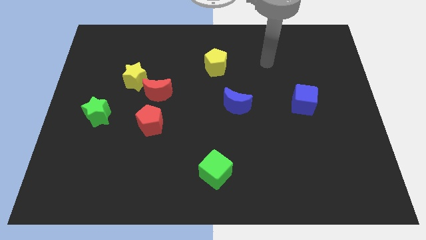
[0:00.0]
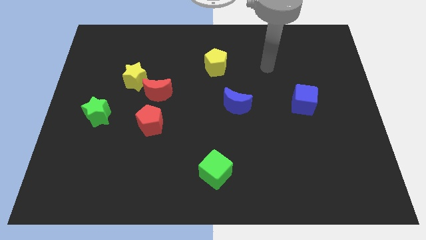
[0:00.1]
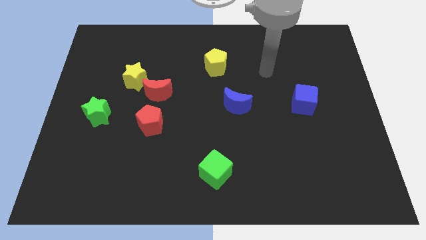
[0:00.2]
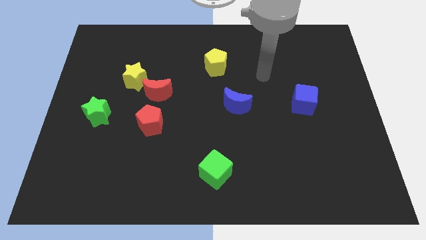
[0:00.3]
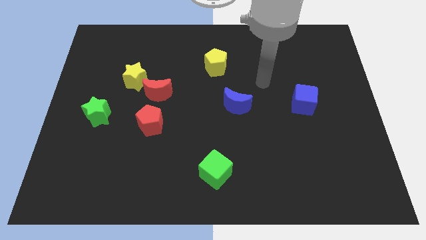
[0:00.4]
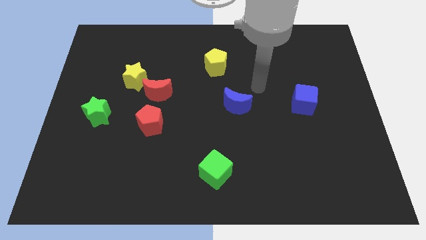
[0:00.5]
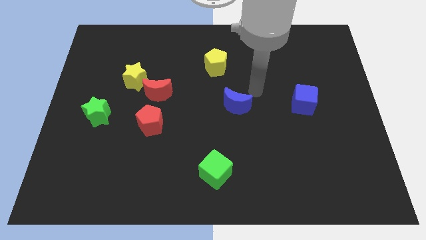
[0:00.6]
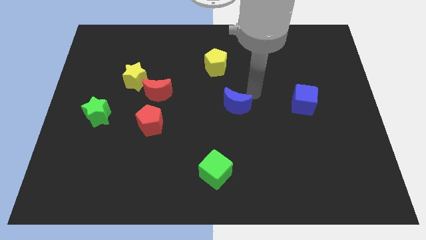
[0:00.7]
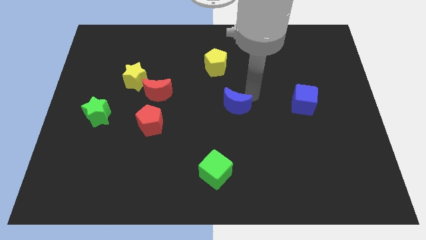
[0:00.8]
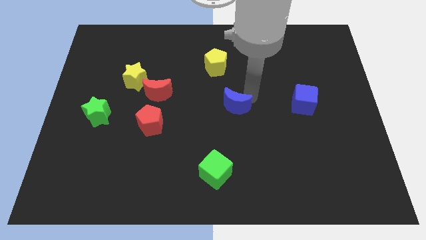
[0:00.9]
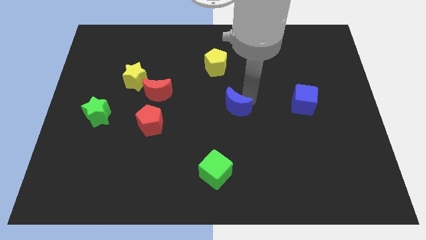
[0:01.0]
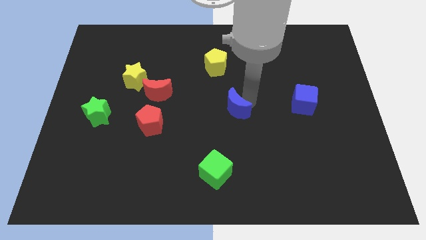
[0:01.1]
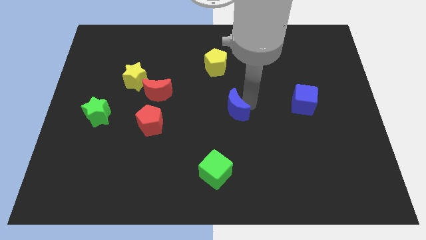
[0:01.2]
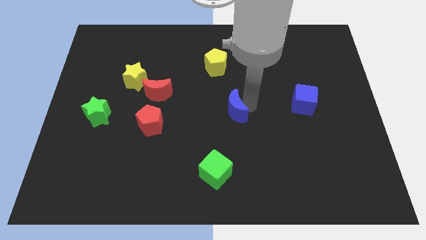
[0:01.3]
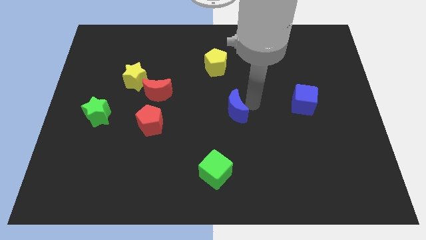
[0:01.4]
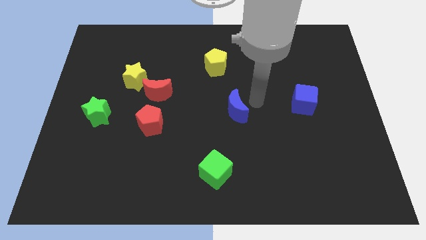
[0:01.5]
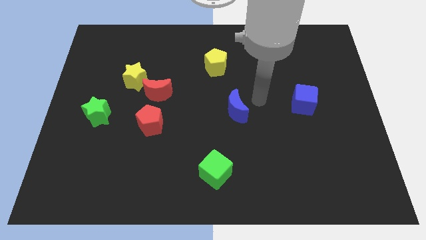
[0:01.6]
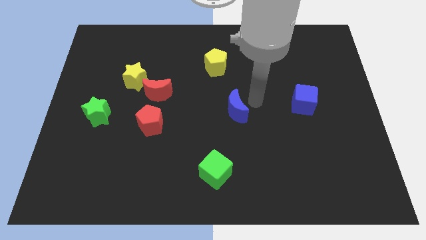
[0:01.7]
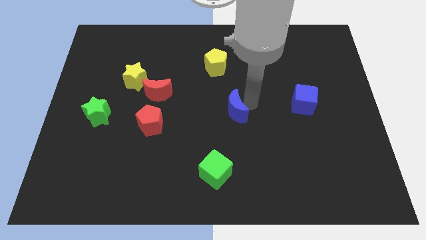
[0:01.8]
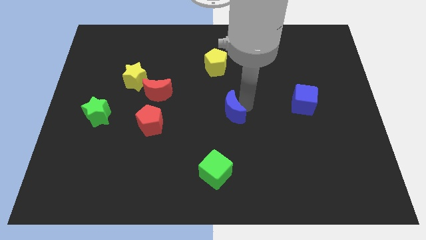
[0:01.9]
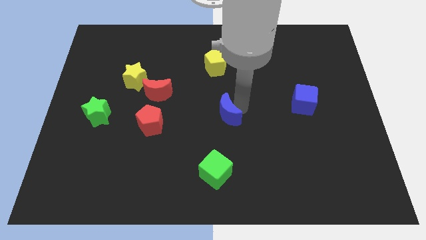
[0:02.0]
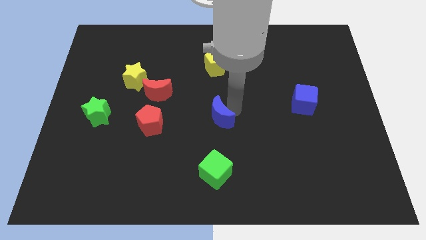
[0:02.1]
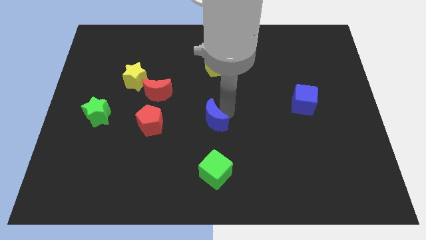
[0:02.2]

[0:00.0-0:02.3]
slightly push the blue moon diagonally down and left

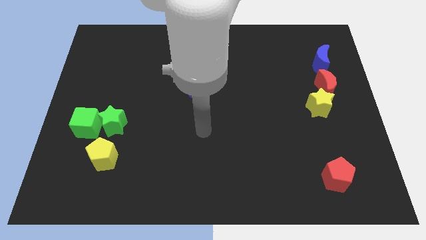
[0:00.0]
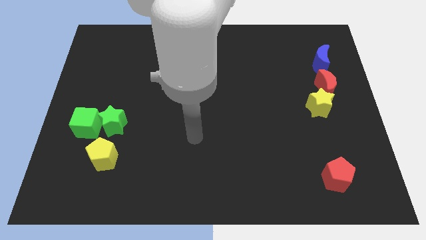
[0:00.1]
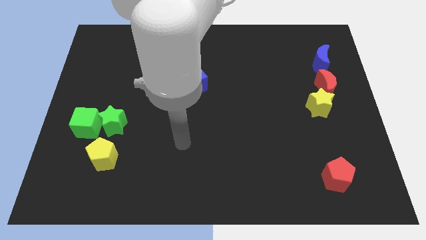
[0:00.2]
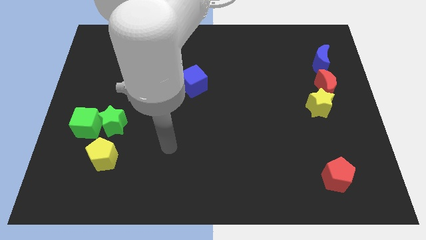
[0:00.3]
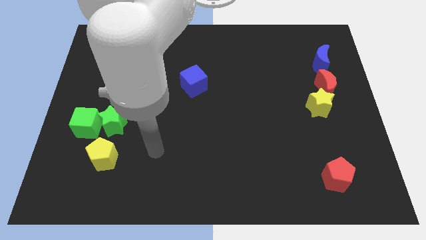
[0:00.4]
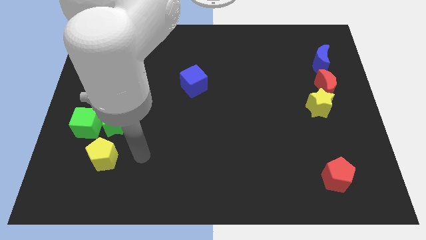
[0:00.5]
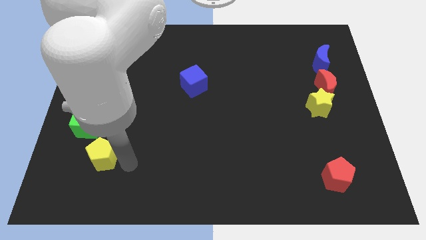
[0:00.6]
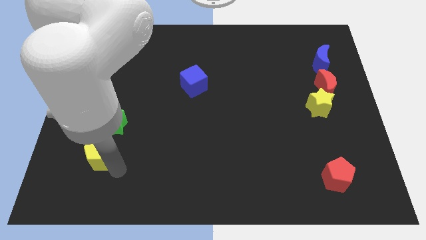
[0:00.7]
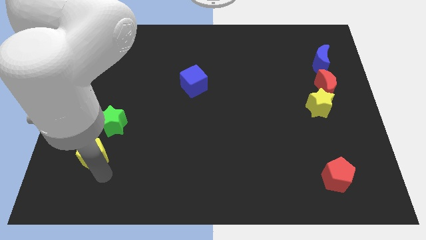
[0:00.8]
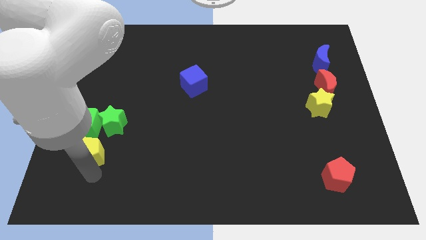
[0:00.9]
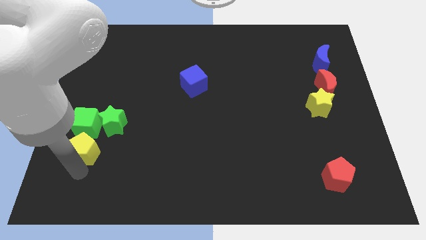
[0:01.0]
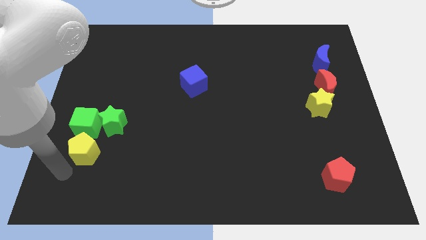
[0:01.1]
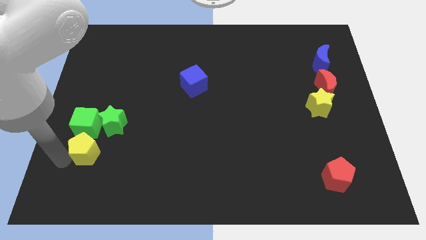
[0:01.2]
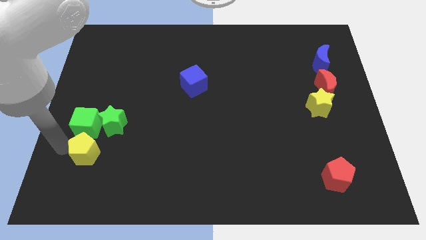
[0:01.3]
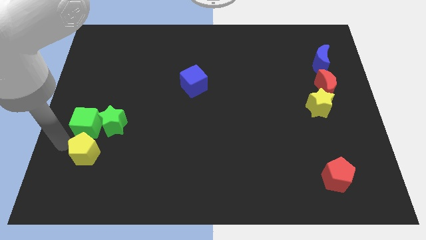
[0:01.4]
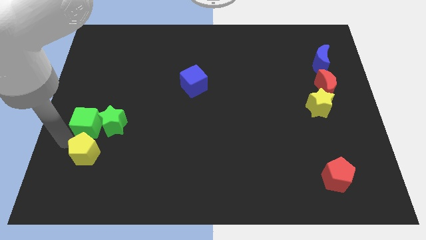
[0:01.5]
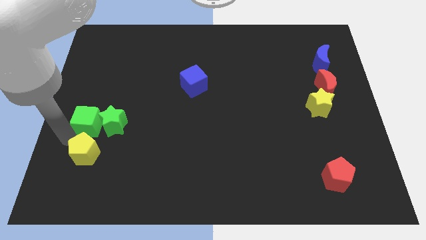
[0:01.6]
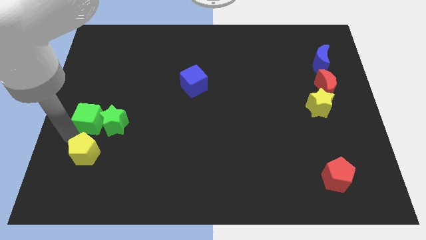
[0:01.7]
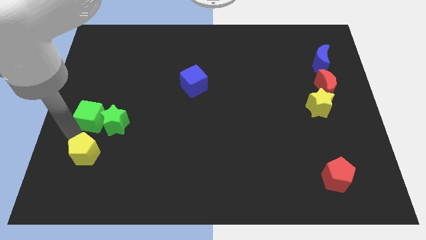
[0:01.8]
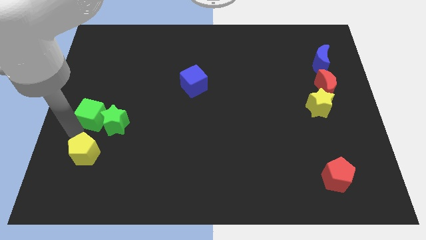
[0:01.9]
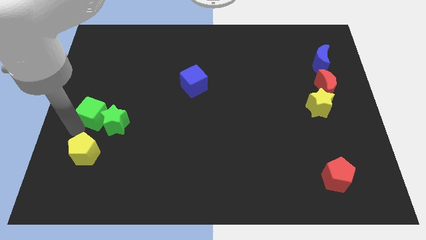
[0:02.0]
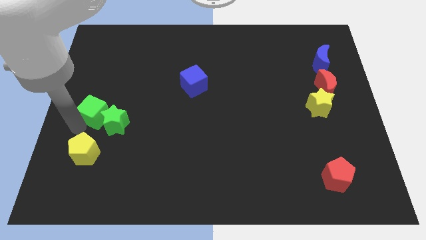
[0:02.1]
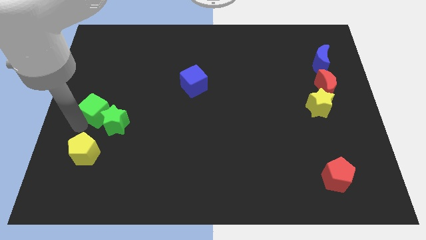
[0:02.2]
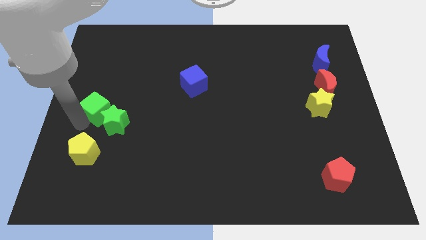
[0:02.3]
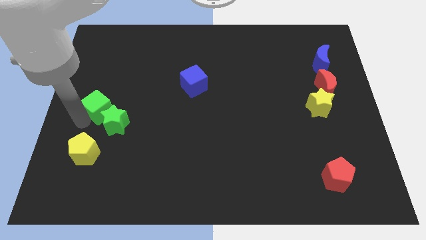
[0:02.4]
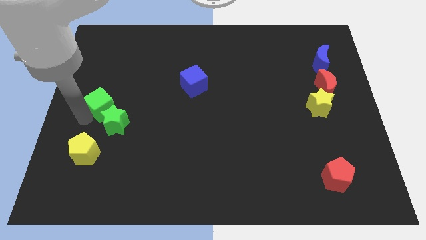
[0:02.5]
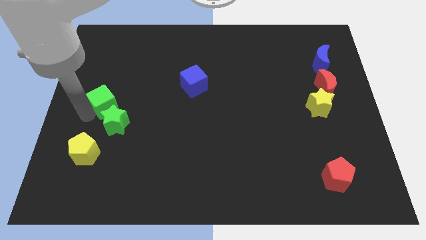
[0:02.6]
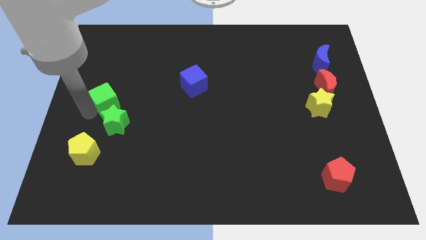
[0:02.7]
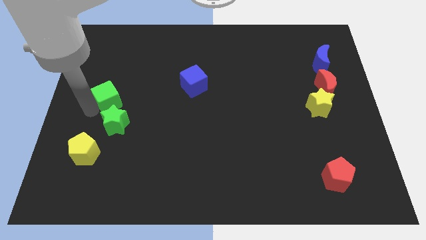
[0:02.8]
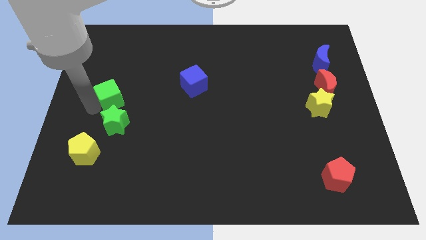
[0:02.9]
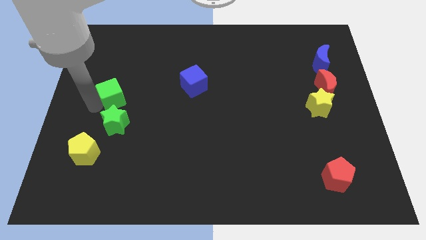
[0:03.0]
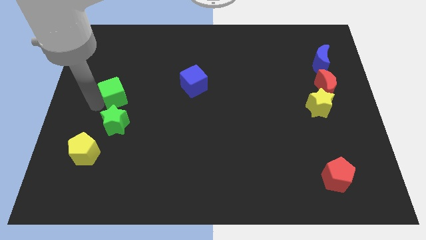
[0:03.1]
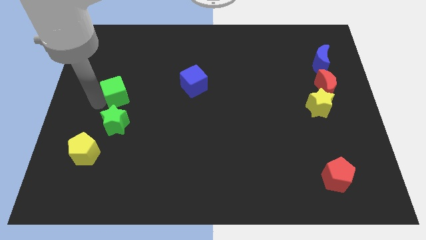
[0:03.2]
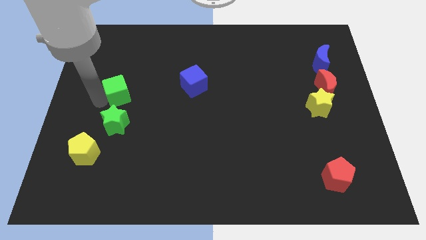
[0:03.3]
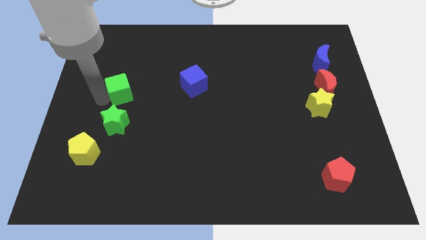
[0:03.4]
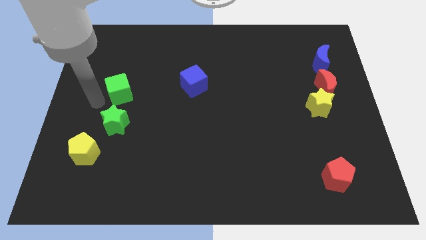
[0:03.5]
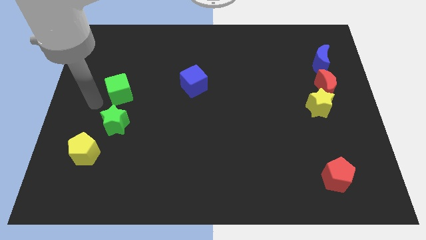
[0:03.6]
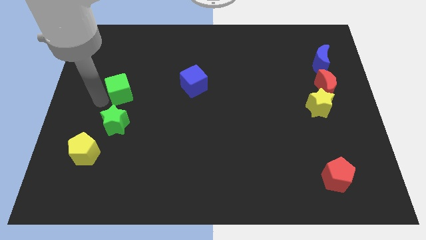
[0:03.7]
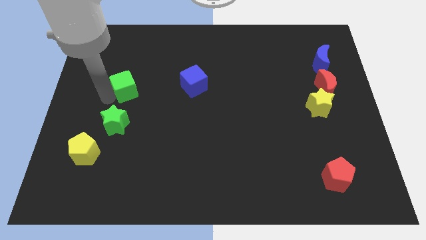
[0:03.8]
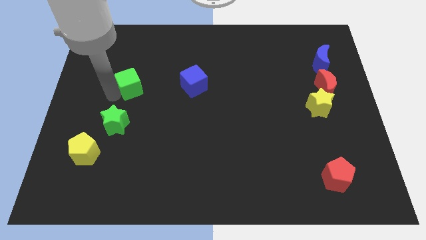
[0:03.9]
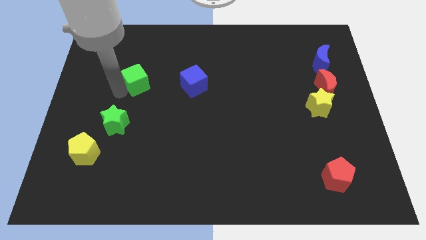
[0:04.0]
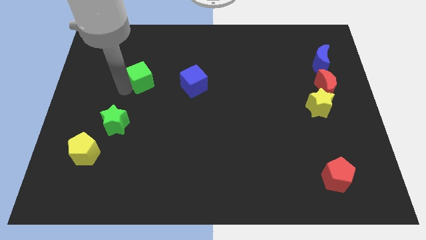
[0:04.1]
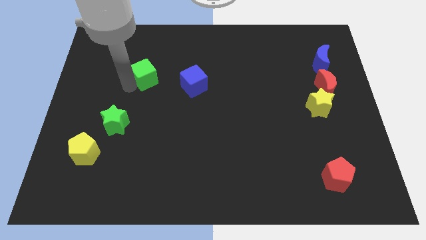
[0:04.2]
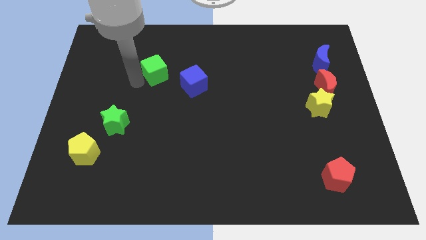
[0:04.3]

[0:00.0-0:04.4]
move the green cube upwards and then right

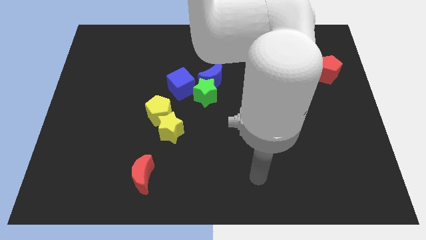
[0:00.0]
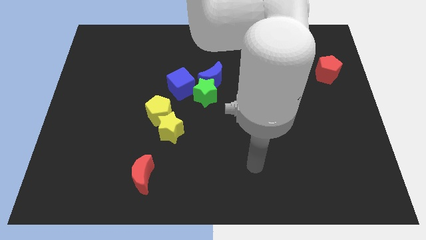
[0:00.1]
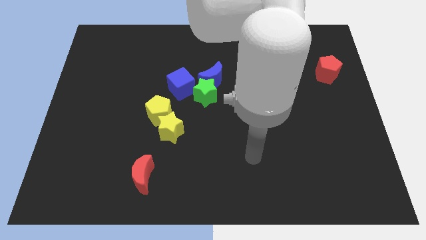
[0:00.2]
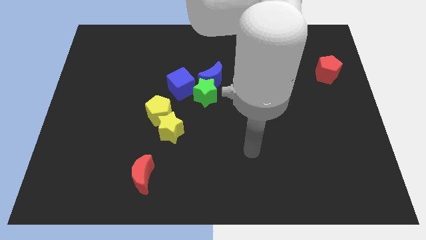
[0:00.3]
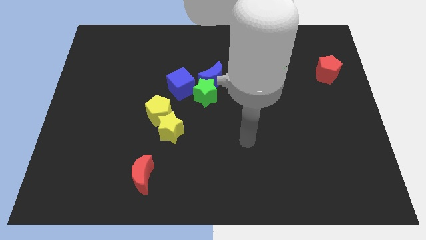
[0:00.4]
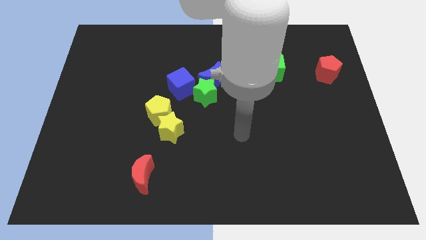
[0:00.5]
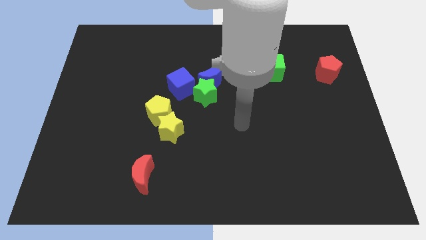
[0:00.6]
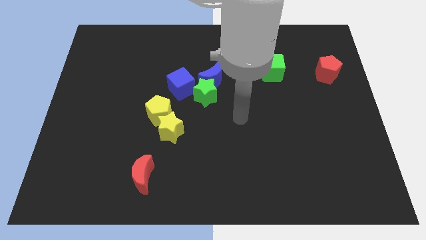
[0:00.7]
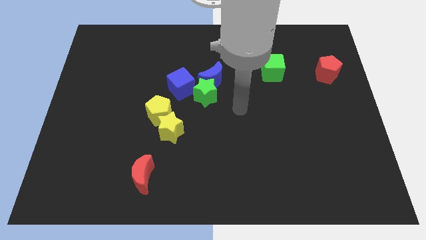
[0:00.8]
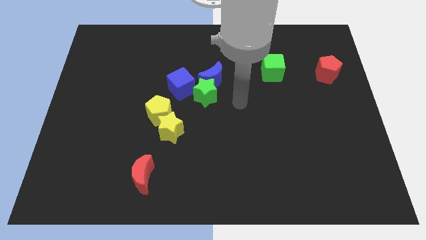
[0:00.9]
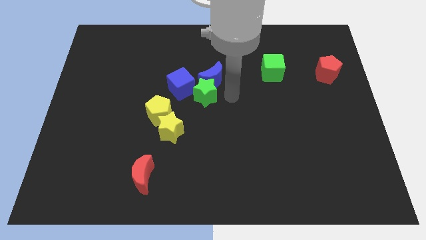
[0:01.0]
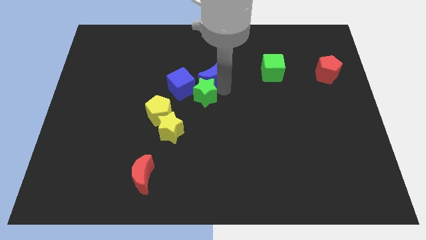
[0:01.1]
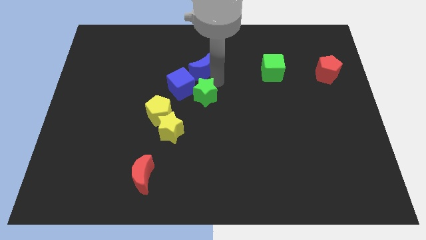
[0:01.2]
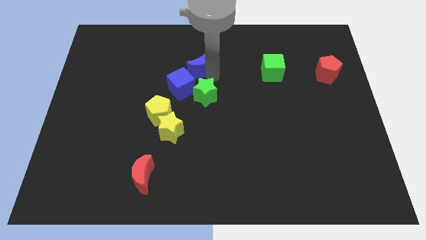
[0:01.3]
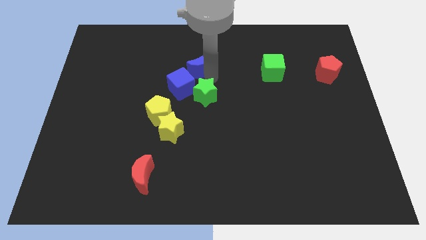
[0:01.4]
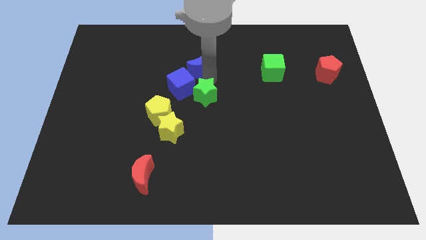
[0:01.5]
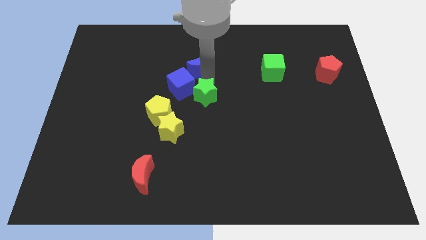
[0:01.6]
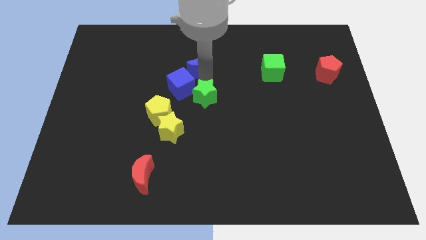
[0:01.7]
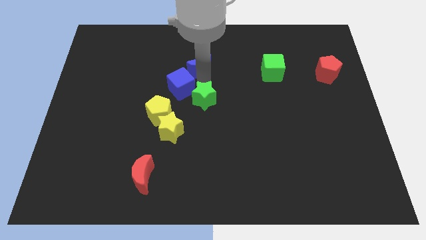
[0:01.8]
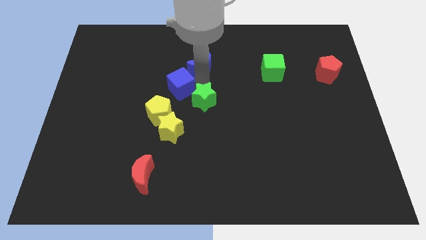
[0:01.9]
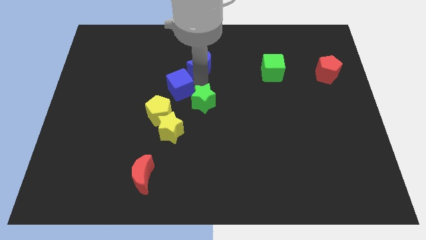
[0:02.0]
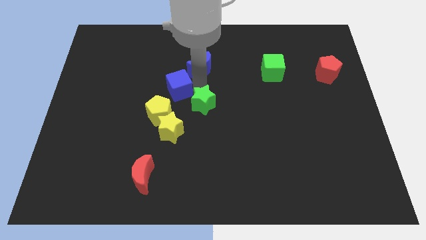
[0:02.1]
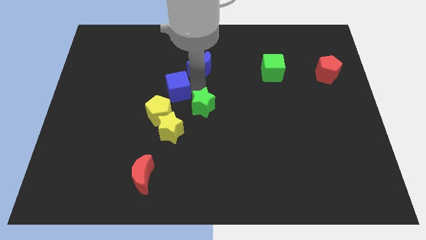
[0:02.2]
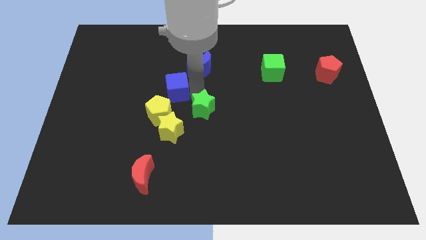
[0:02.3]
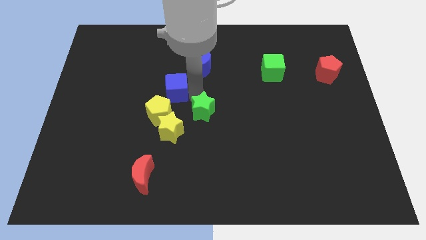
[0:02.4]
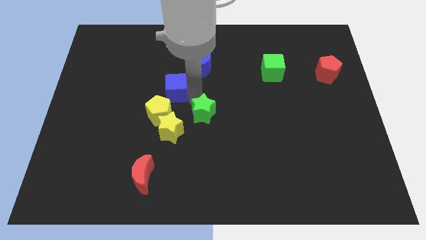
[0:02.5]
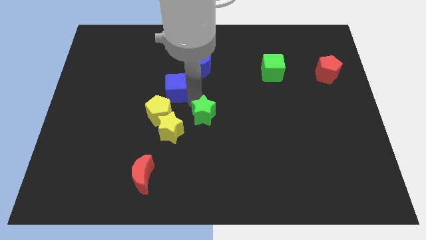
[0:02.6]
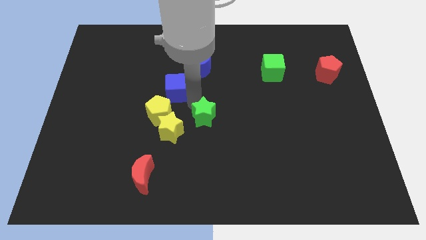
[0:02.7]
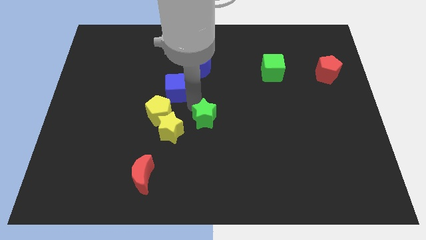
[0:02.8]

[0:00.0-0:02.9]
slightly move the green star down
